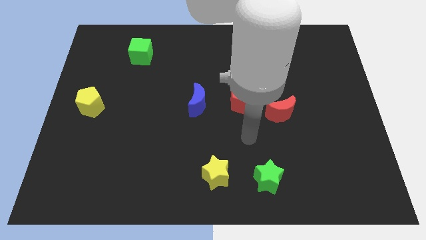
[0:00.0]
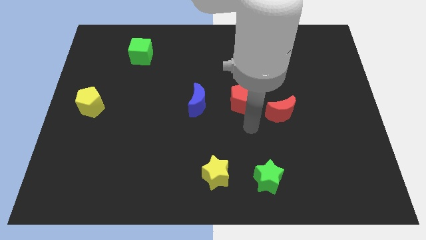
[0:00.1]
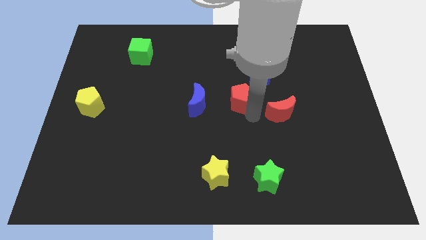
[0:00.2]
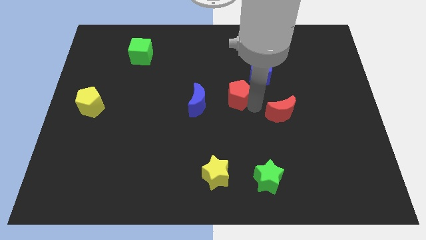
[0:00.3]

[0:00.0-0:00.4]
pull the red moon apart from the red pentagon

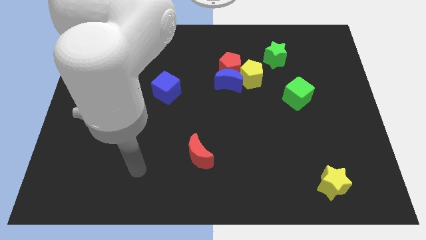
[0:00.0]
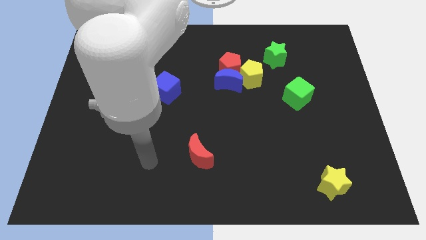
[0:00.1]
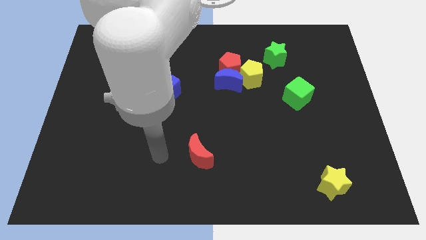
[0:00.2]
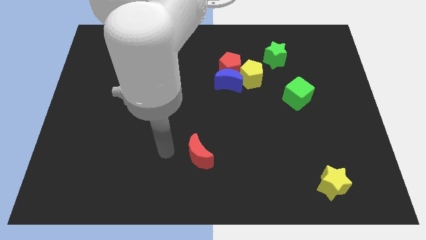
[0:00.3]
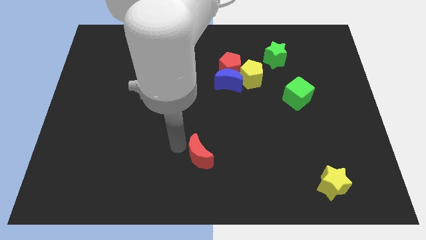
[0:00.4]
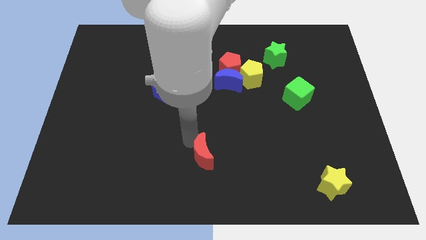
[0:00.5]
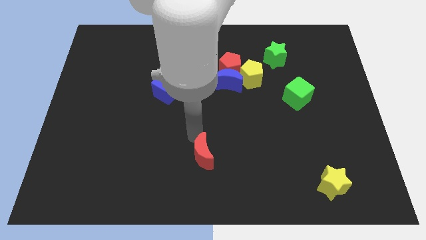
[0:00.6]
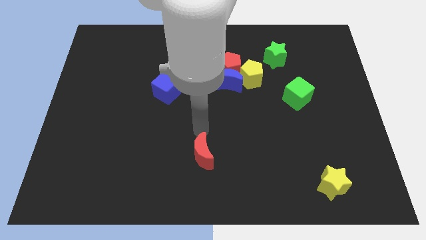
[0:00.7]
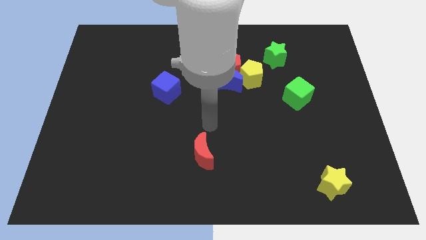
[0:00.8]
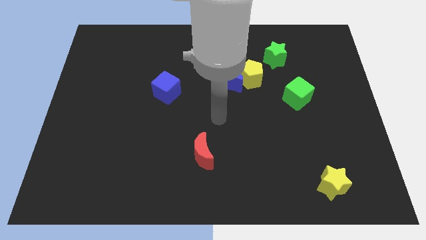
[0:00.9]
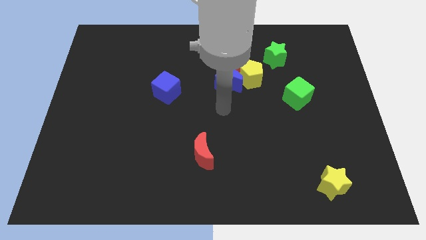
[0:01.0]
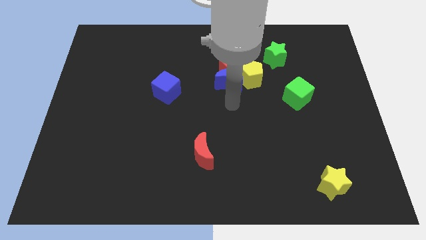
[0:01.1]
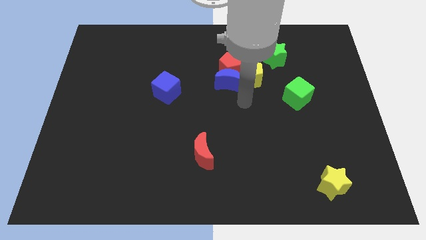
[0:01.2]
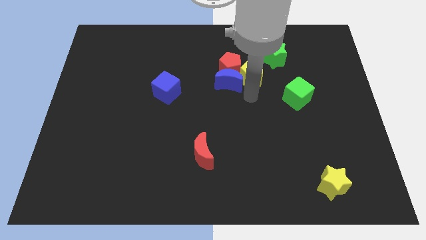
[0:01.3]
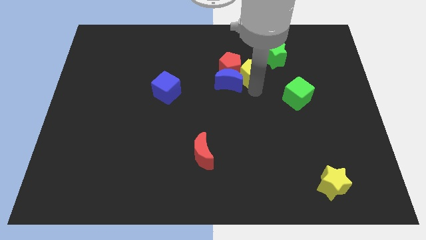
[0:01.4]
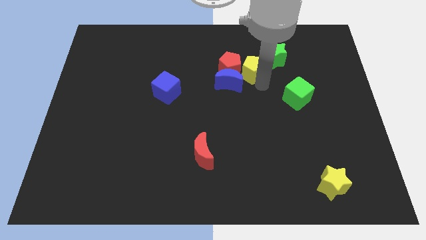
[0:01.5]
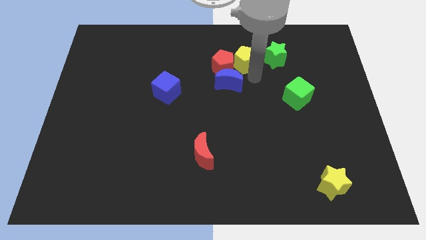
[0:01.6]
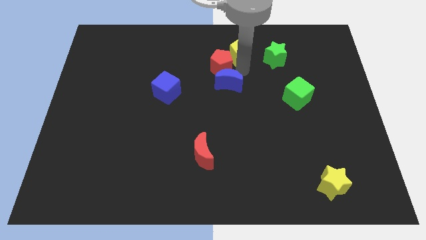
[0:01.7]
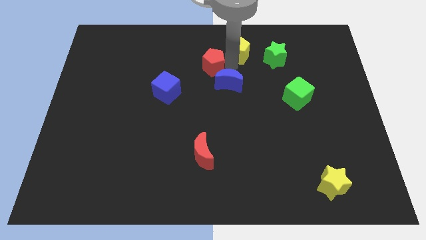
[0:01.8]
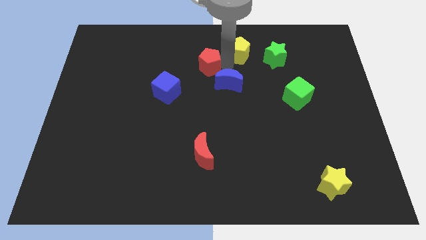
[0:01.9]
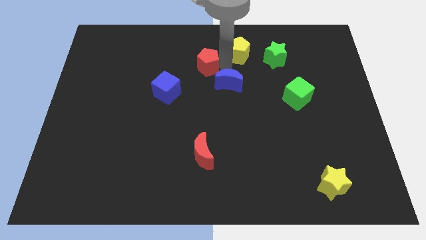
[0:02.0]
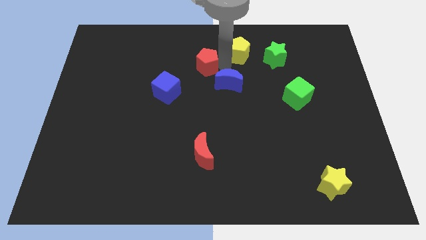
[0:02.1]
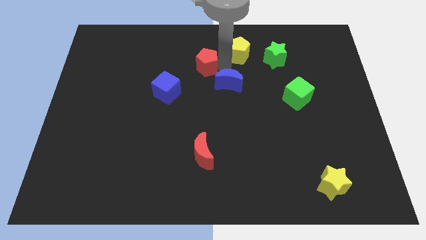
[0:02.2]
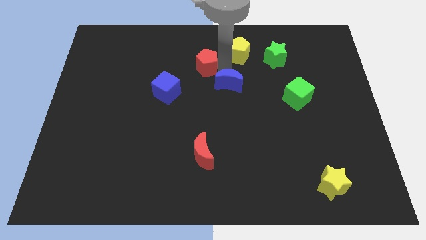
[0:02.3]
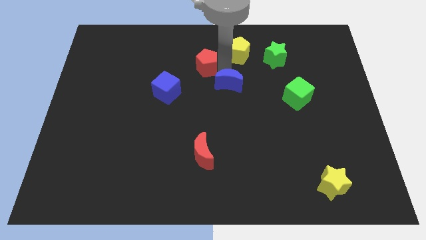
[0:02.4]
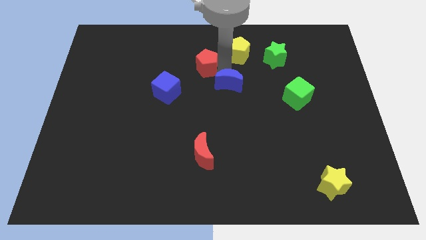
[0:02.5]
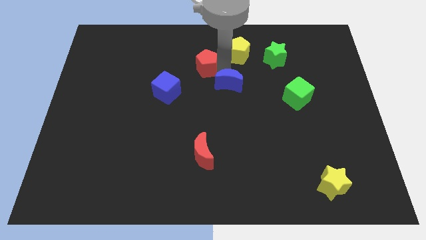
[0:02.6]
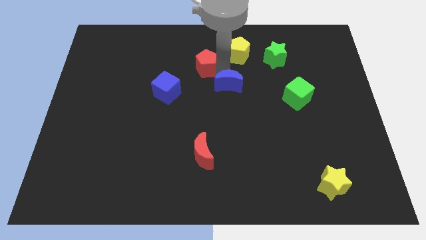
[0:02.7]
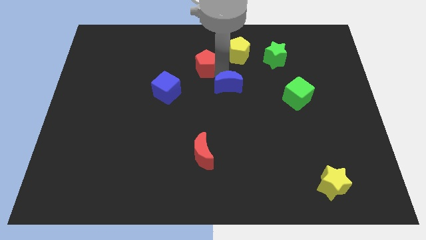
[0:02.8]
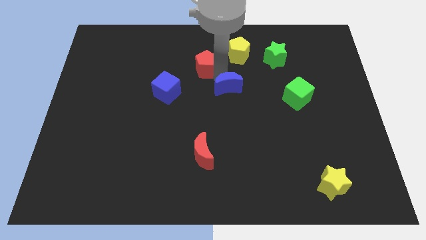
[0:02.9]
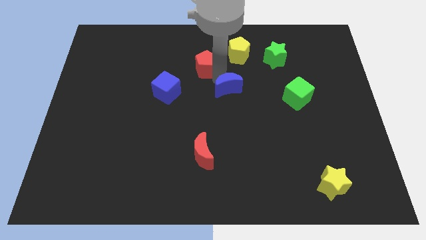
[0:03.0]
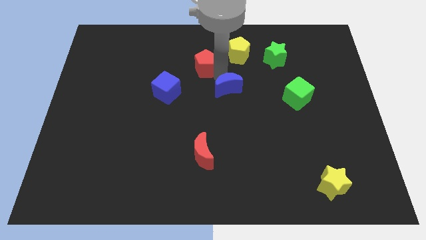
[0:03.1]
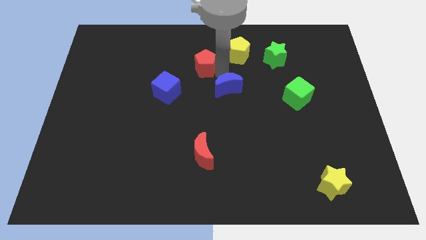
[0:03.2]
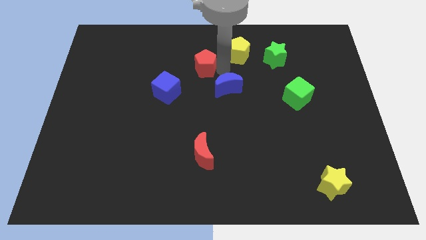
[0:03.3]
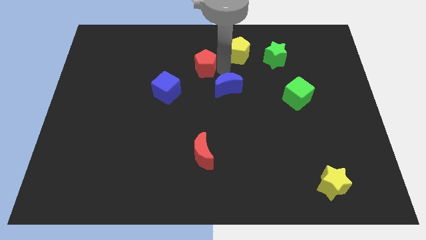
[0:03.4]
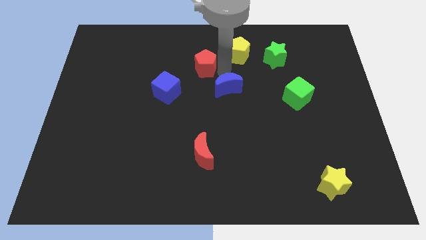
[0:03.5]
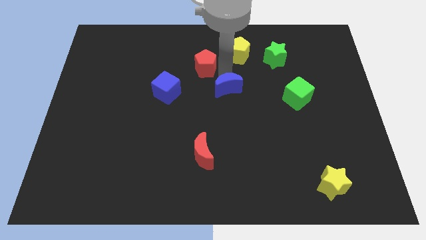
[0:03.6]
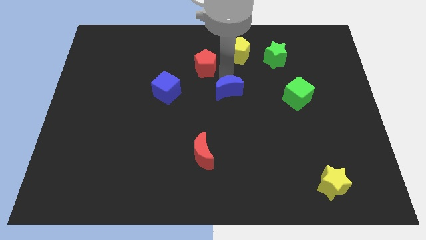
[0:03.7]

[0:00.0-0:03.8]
pull the blue moon apart from the red pentagon and yellow pentagon

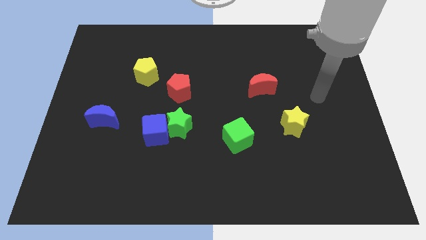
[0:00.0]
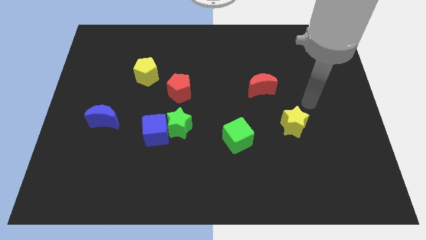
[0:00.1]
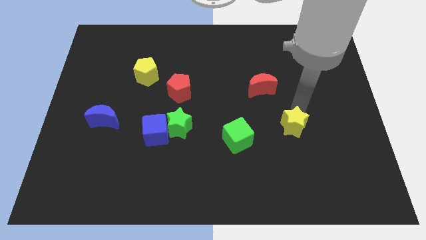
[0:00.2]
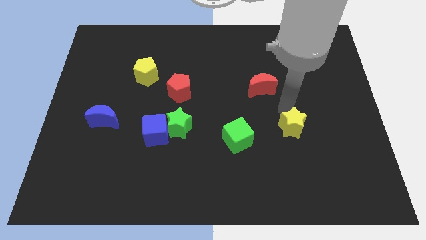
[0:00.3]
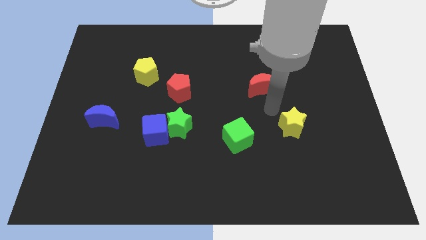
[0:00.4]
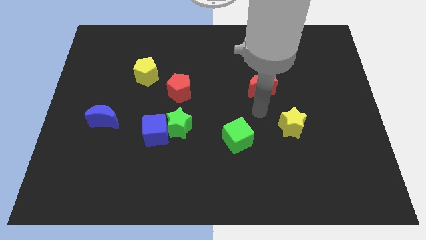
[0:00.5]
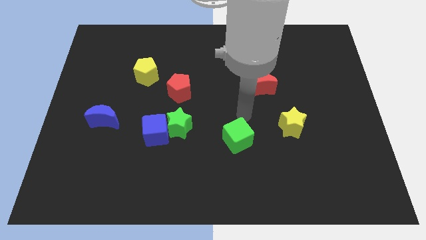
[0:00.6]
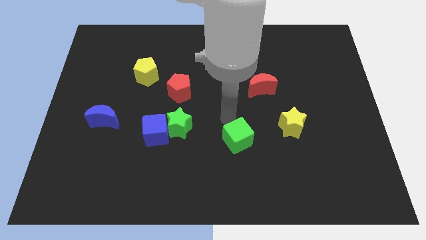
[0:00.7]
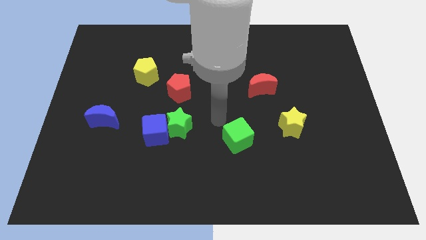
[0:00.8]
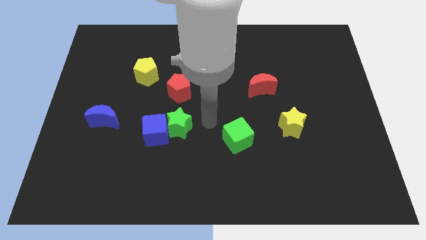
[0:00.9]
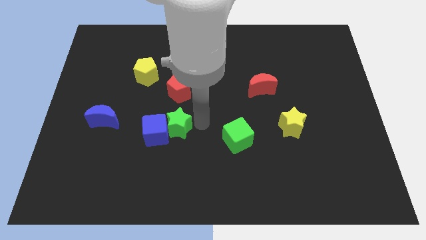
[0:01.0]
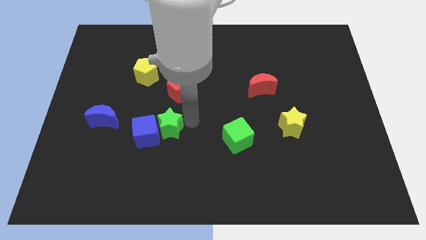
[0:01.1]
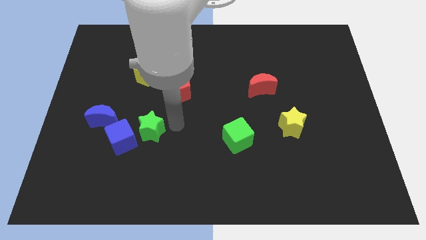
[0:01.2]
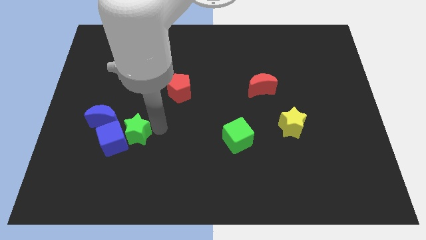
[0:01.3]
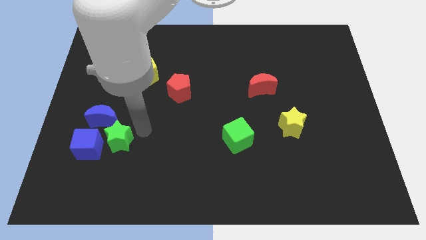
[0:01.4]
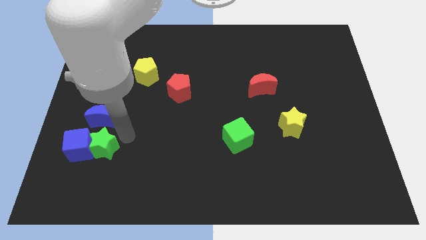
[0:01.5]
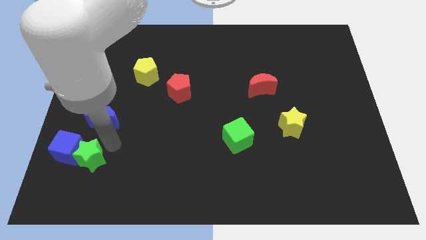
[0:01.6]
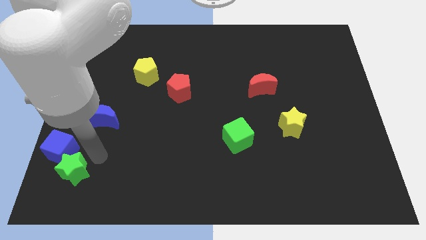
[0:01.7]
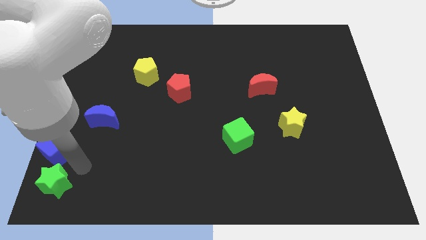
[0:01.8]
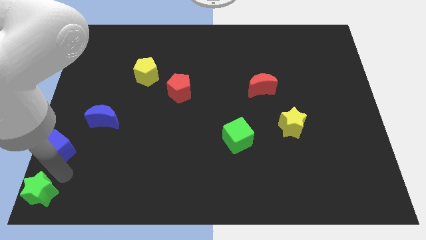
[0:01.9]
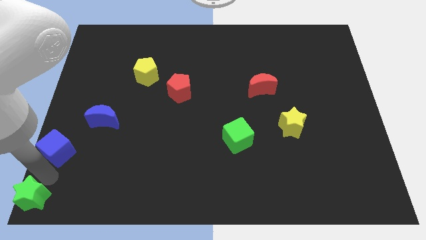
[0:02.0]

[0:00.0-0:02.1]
move the blue cube away from the green star

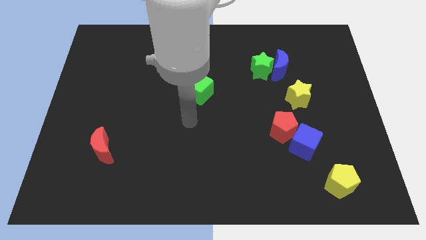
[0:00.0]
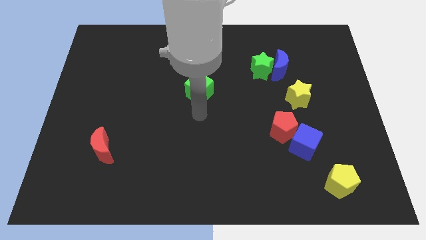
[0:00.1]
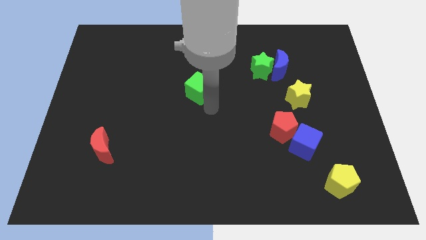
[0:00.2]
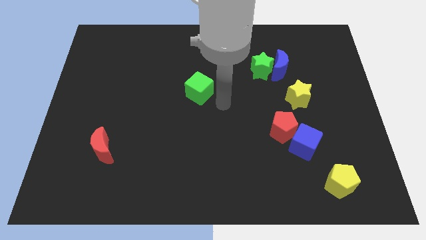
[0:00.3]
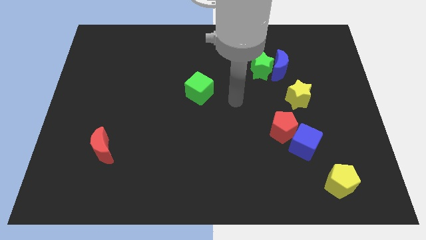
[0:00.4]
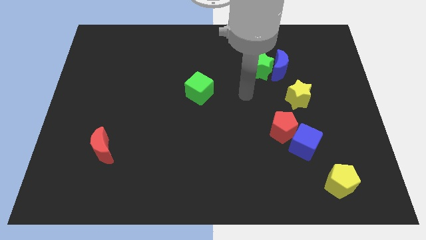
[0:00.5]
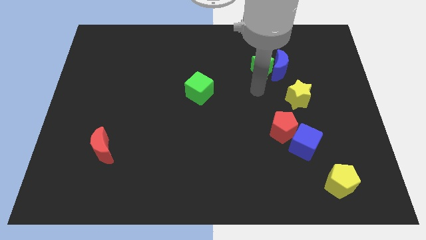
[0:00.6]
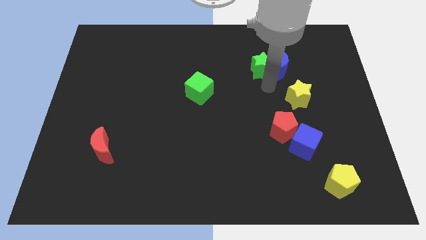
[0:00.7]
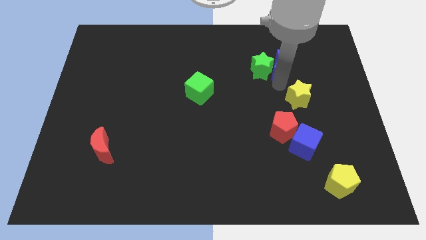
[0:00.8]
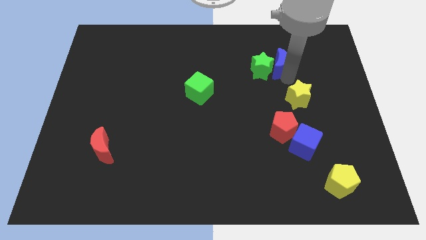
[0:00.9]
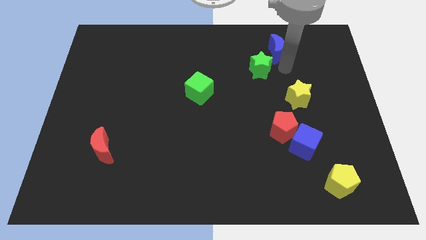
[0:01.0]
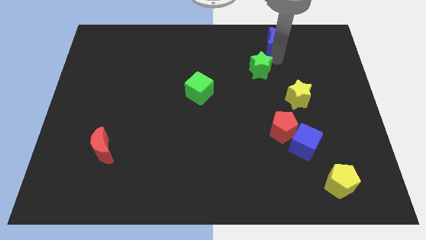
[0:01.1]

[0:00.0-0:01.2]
pull the green star apart from the blue moon

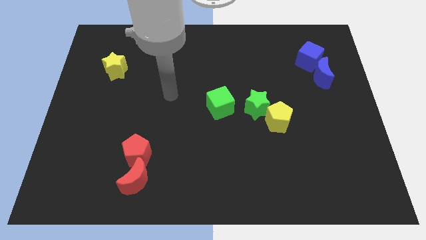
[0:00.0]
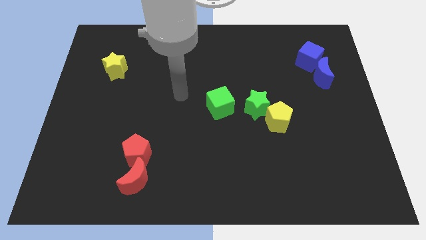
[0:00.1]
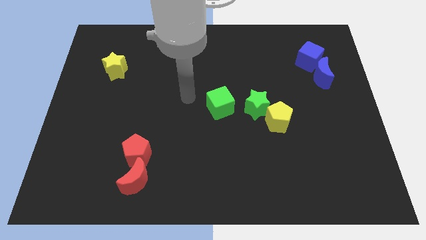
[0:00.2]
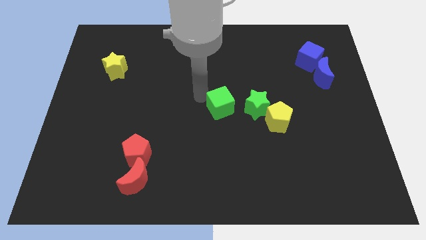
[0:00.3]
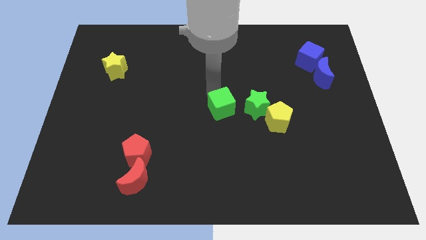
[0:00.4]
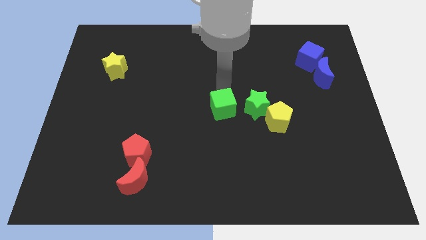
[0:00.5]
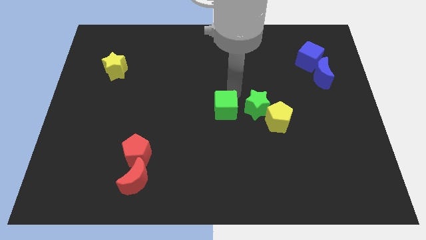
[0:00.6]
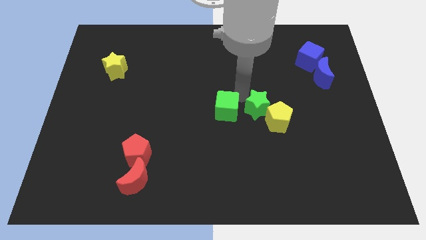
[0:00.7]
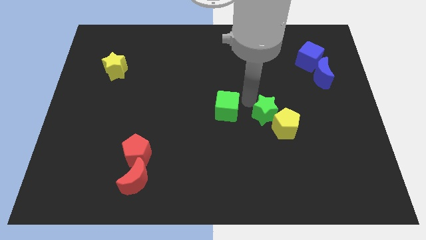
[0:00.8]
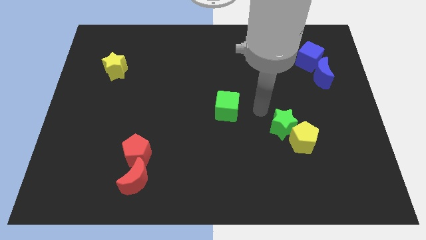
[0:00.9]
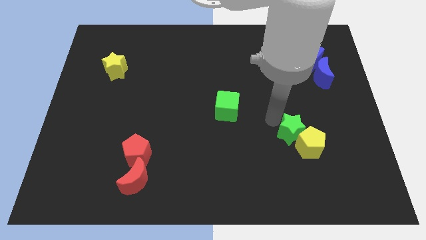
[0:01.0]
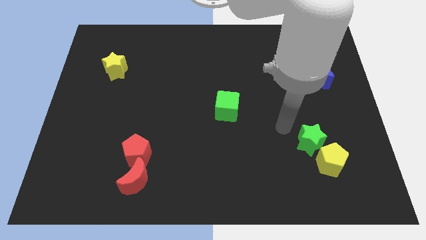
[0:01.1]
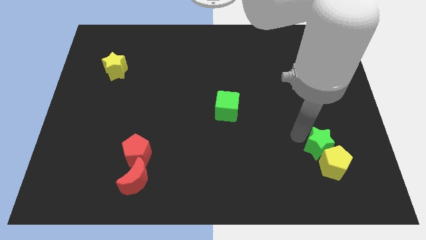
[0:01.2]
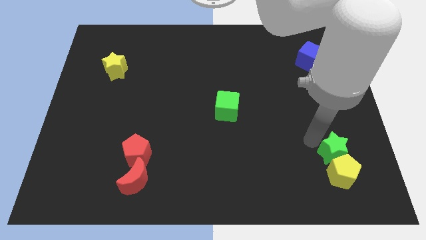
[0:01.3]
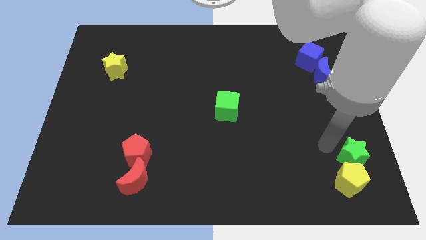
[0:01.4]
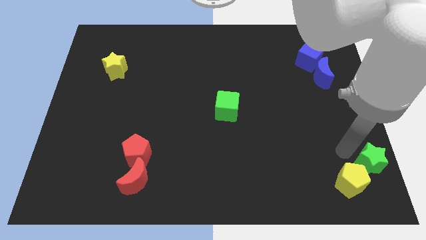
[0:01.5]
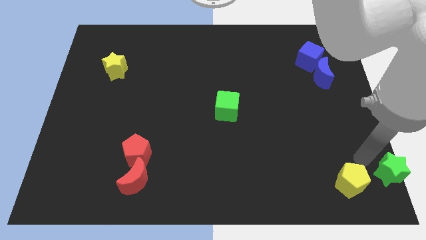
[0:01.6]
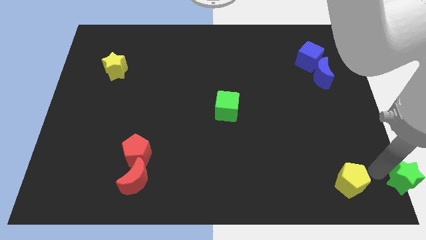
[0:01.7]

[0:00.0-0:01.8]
pull the yellow pentagon apart from the green star
